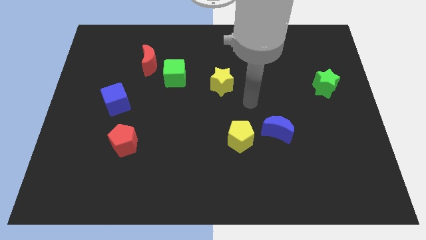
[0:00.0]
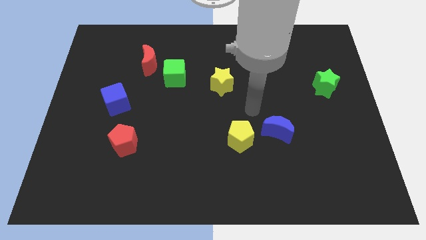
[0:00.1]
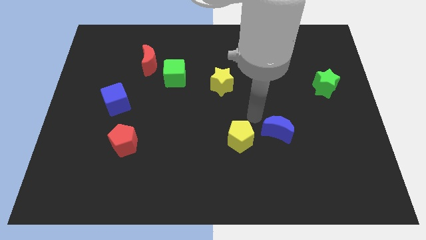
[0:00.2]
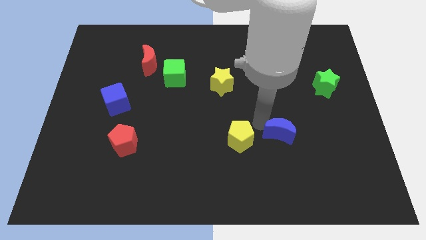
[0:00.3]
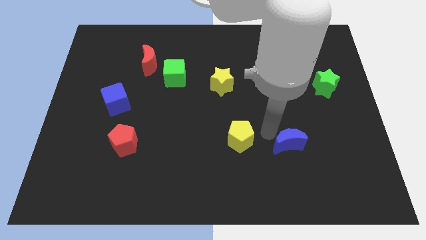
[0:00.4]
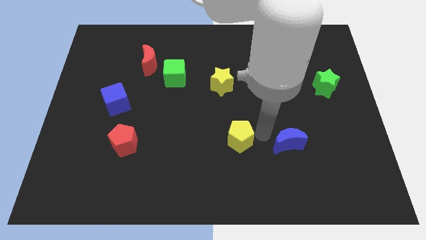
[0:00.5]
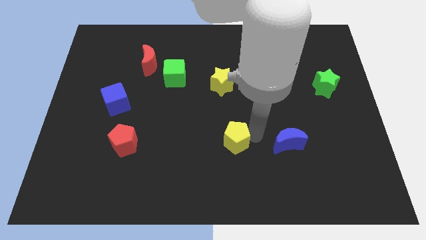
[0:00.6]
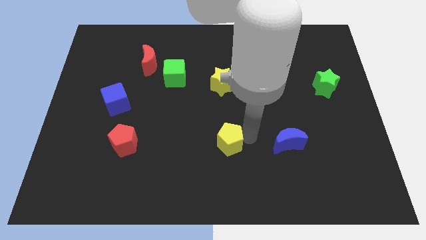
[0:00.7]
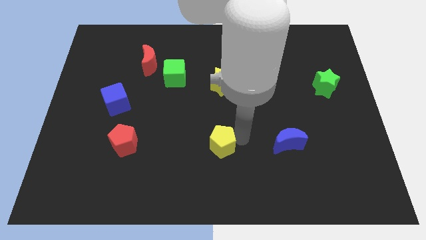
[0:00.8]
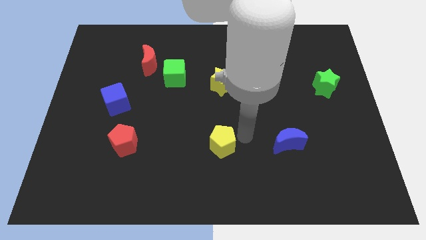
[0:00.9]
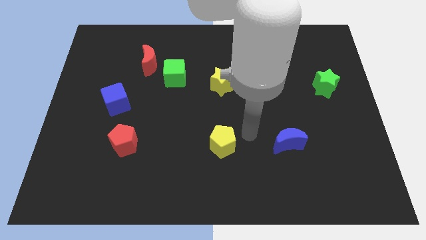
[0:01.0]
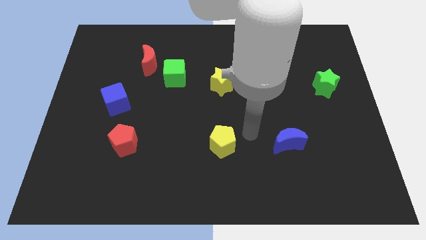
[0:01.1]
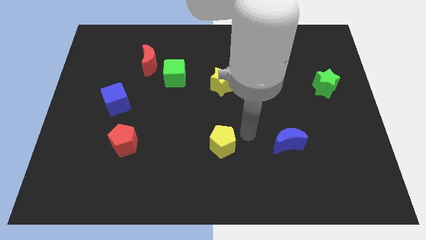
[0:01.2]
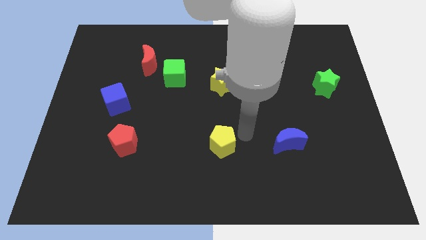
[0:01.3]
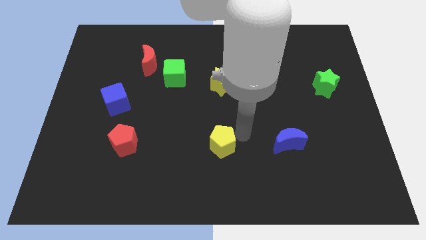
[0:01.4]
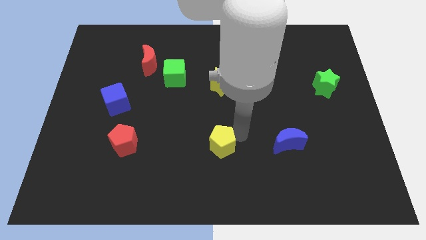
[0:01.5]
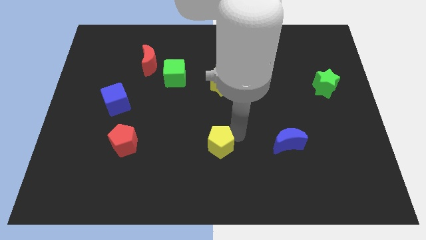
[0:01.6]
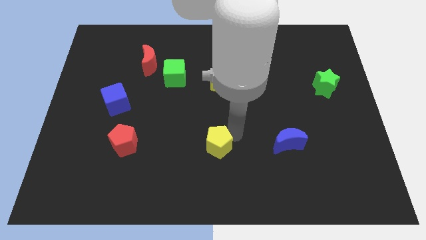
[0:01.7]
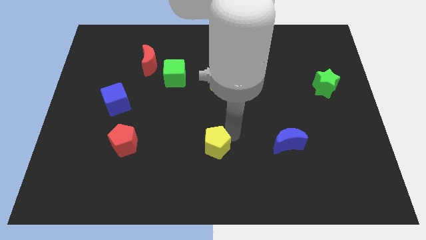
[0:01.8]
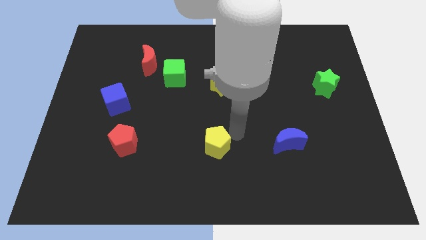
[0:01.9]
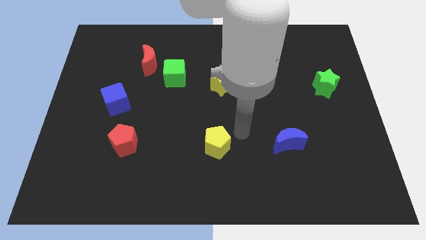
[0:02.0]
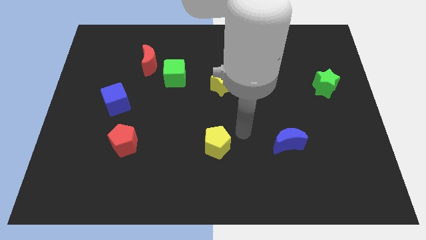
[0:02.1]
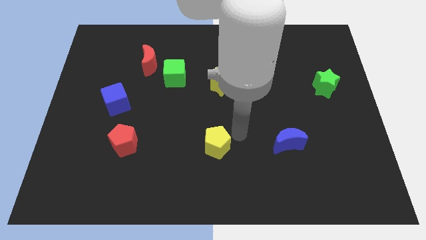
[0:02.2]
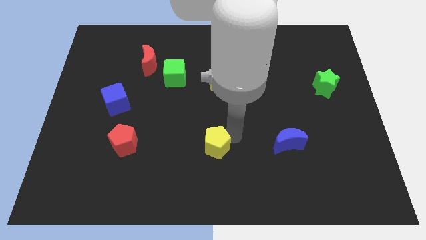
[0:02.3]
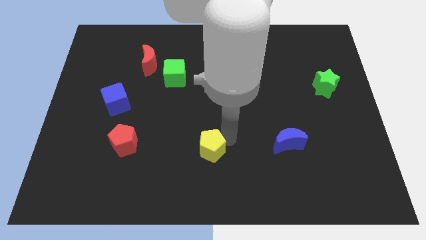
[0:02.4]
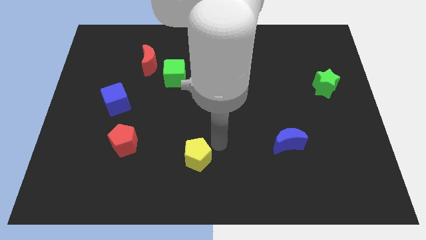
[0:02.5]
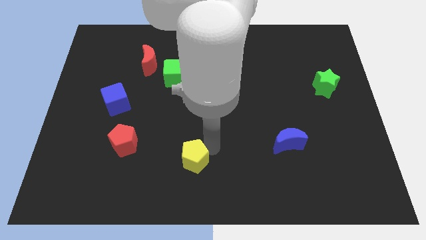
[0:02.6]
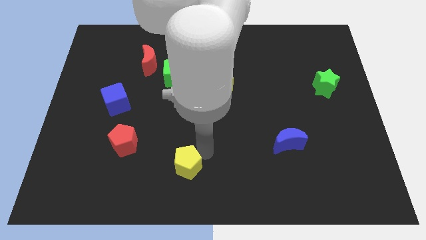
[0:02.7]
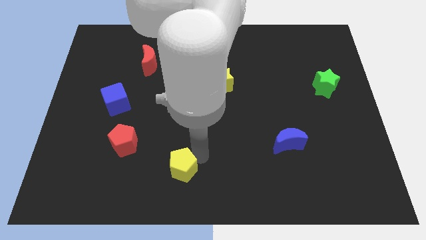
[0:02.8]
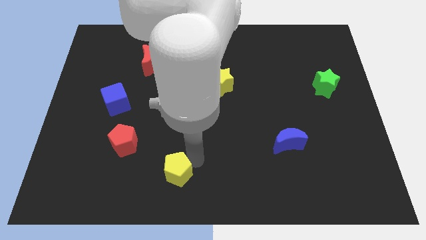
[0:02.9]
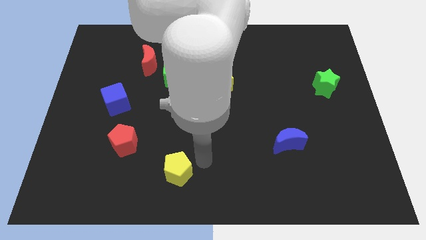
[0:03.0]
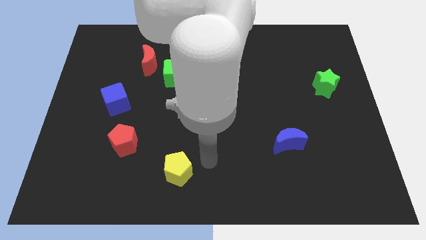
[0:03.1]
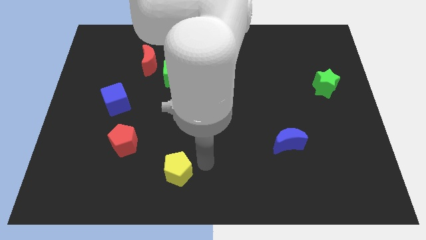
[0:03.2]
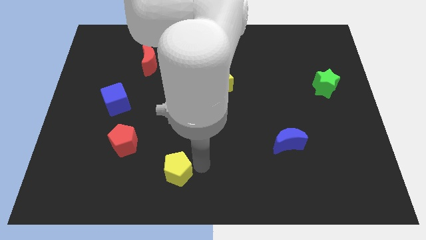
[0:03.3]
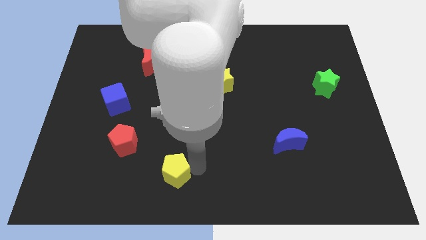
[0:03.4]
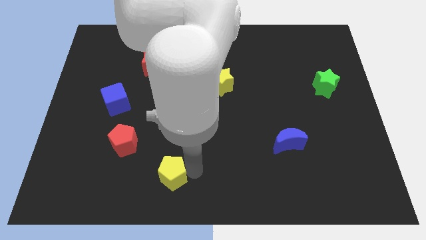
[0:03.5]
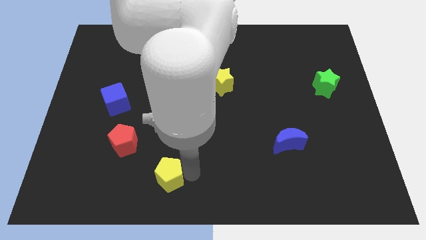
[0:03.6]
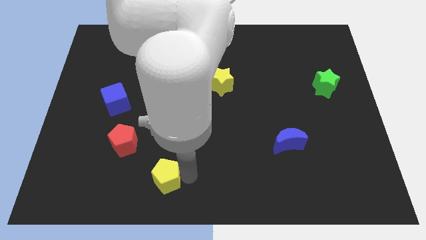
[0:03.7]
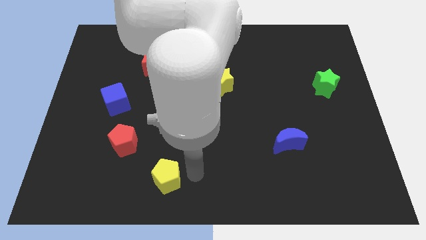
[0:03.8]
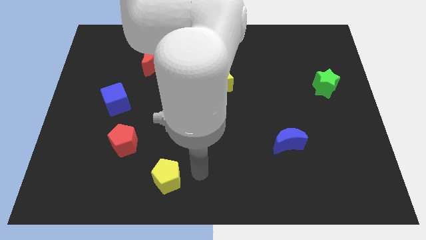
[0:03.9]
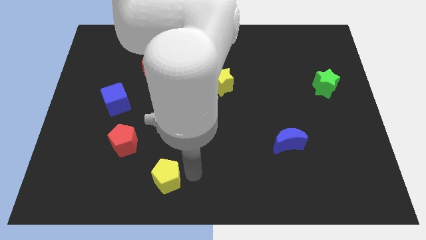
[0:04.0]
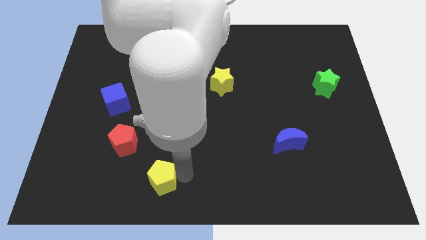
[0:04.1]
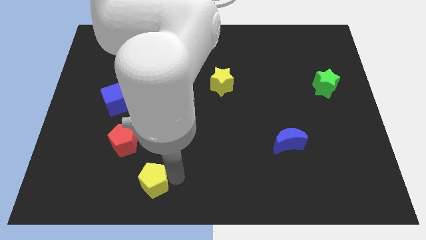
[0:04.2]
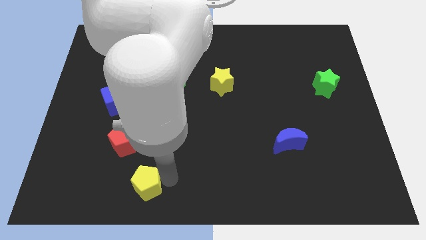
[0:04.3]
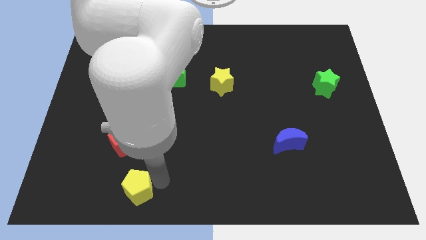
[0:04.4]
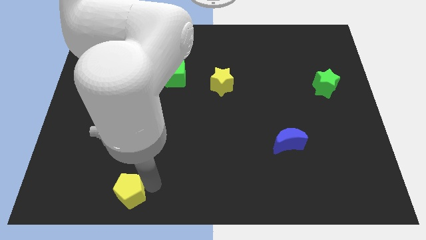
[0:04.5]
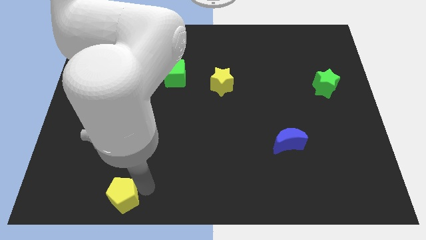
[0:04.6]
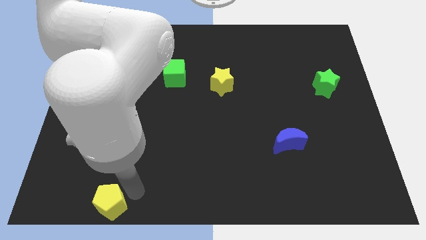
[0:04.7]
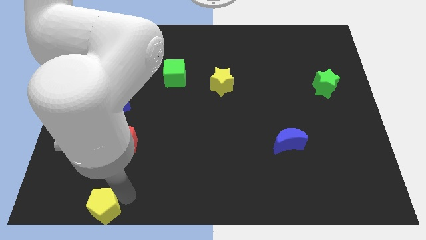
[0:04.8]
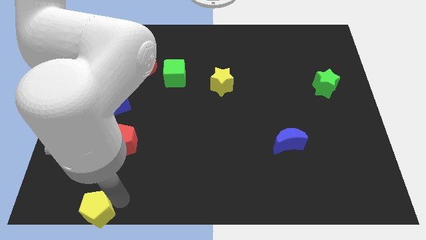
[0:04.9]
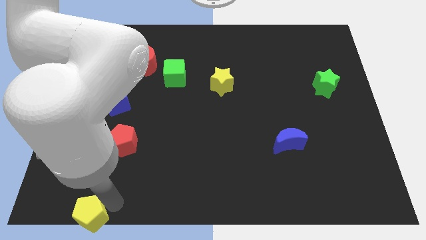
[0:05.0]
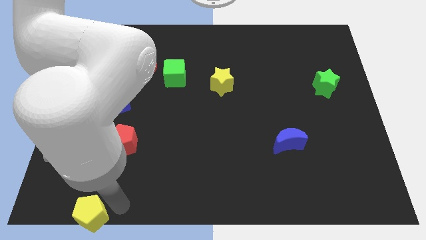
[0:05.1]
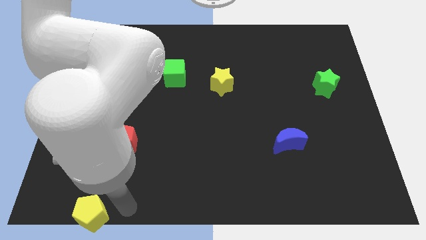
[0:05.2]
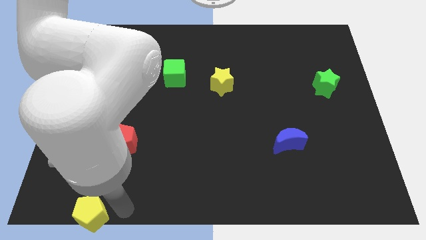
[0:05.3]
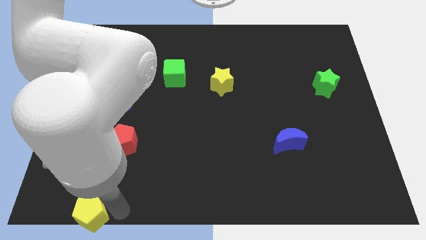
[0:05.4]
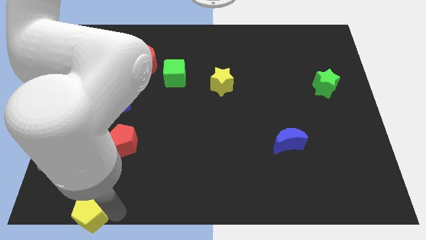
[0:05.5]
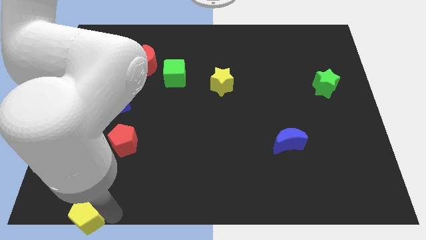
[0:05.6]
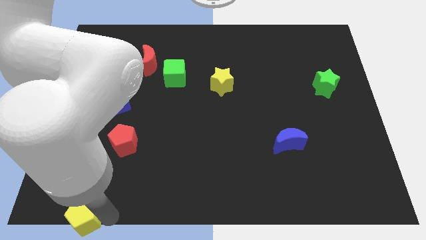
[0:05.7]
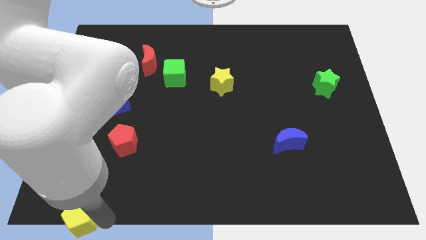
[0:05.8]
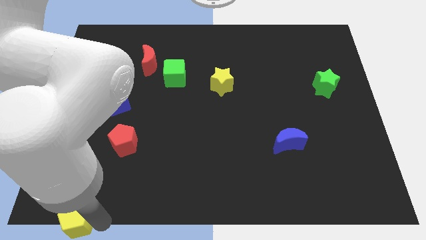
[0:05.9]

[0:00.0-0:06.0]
put the yellow pentagon to the bottom left
